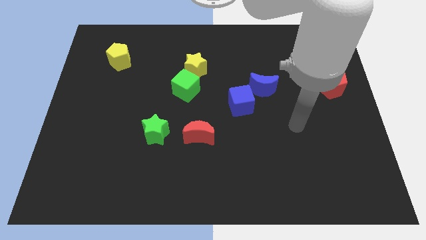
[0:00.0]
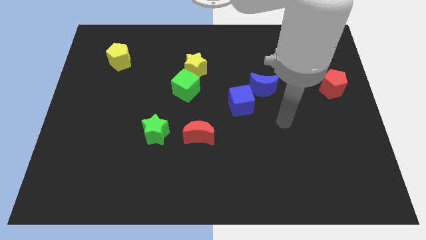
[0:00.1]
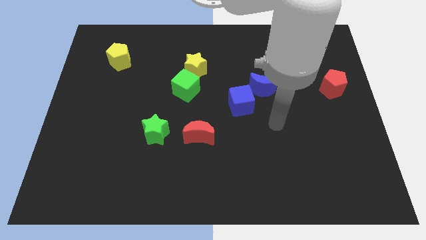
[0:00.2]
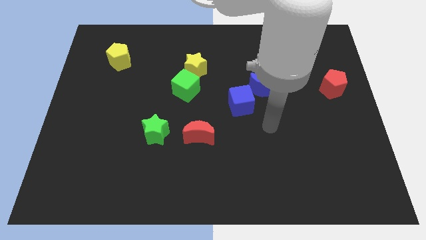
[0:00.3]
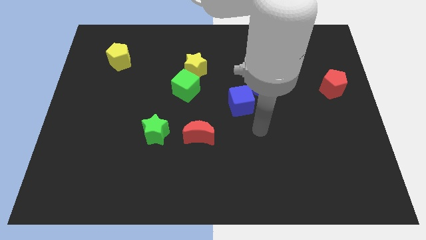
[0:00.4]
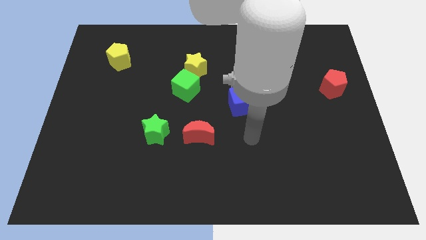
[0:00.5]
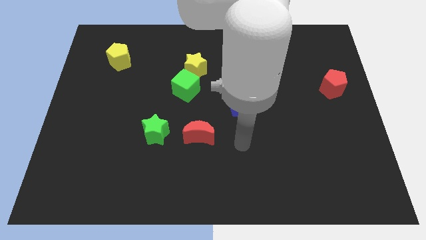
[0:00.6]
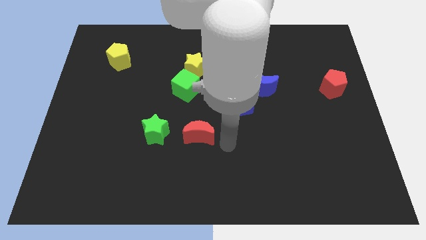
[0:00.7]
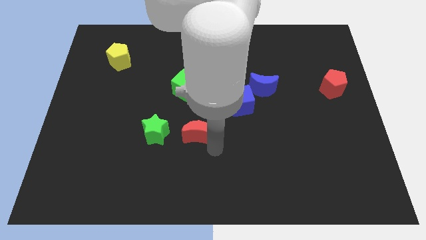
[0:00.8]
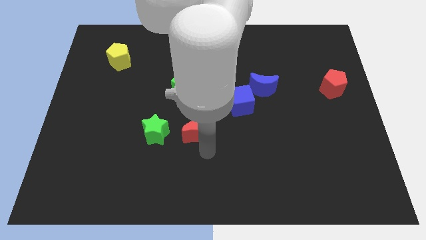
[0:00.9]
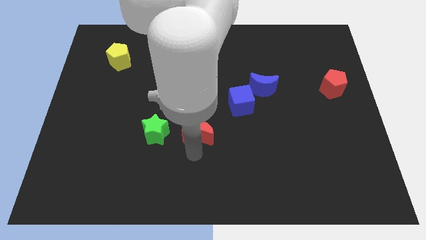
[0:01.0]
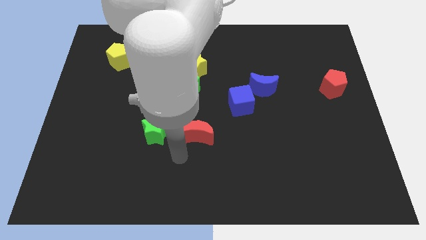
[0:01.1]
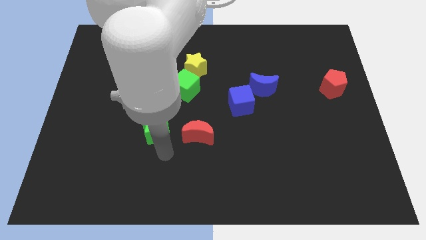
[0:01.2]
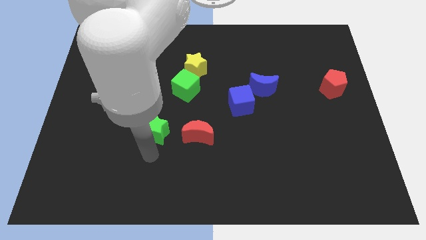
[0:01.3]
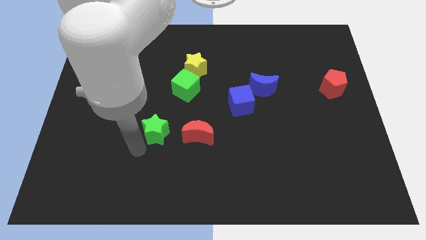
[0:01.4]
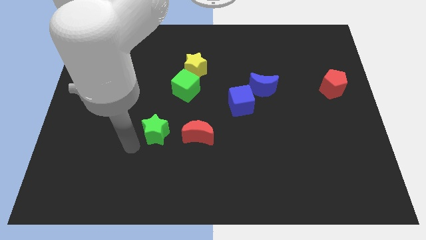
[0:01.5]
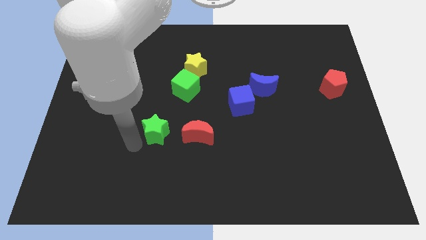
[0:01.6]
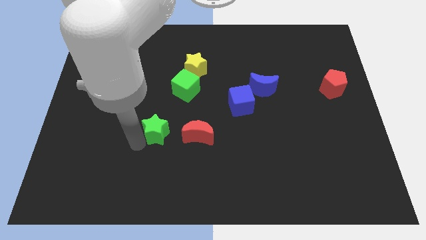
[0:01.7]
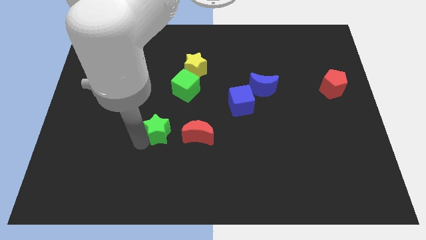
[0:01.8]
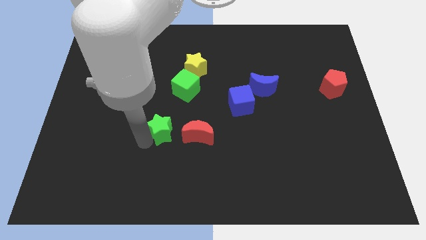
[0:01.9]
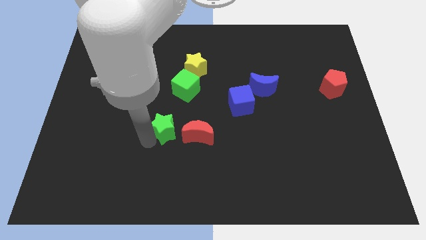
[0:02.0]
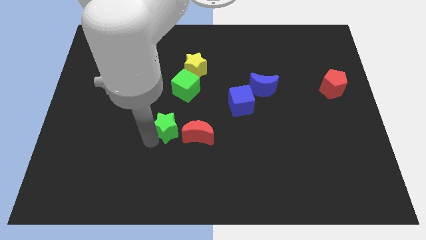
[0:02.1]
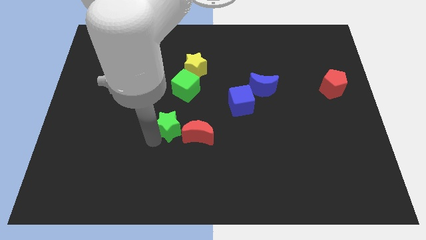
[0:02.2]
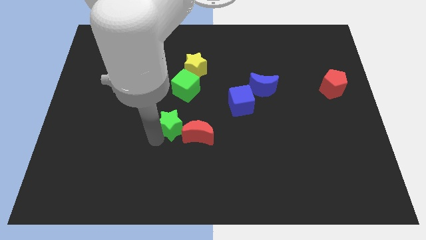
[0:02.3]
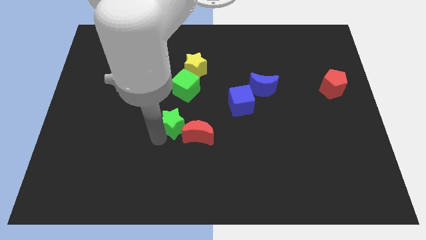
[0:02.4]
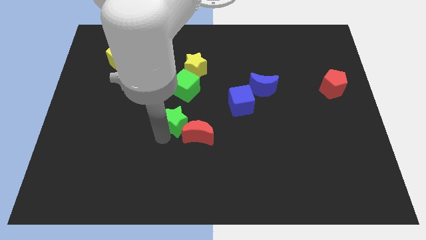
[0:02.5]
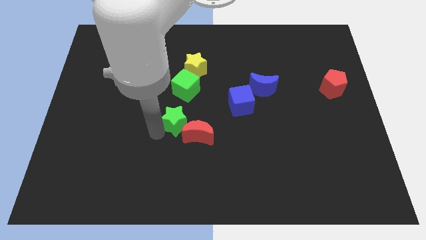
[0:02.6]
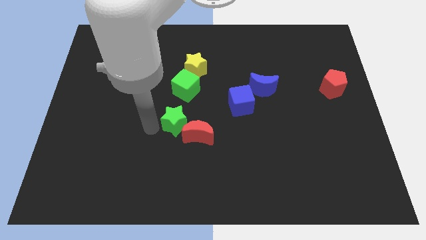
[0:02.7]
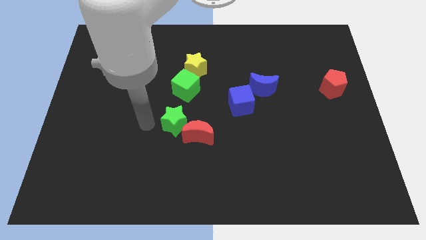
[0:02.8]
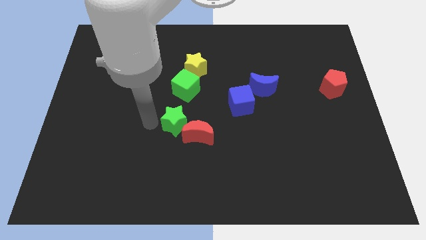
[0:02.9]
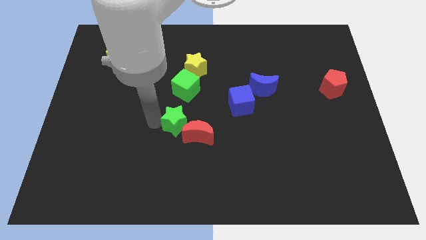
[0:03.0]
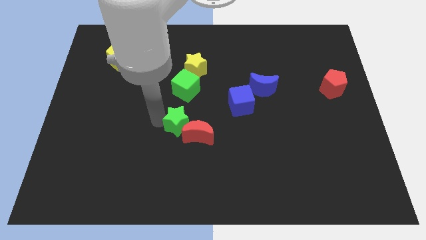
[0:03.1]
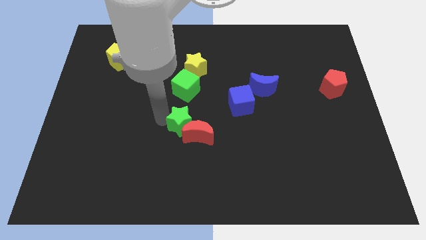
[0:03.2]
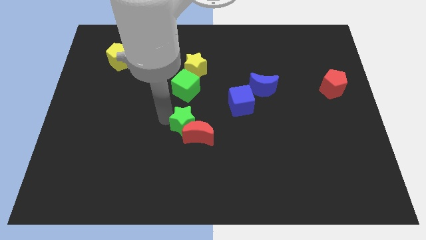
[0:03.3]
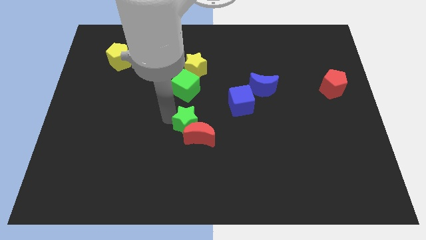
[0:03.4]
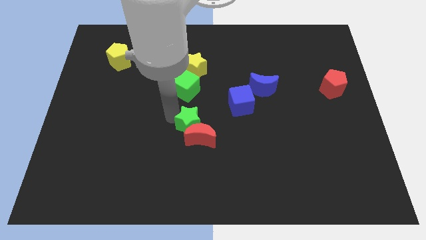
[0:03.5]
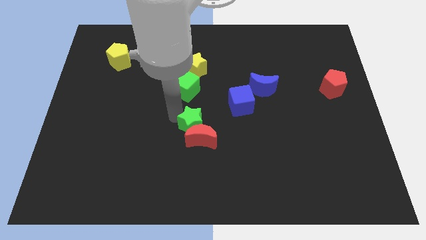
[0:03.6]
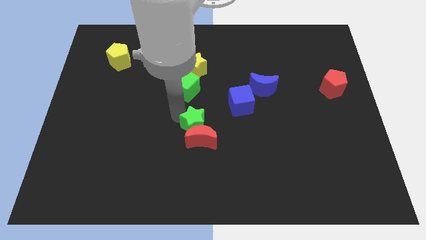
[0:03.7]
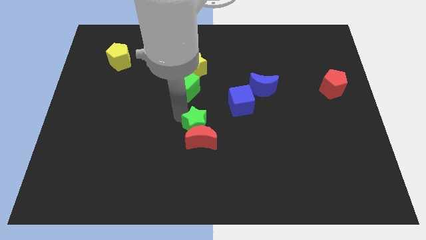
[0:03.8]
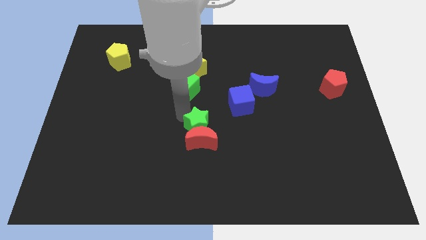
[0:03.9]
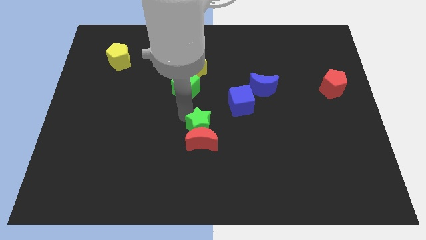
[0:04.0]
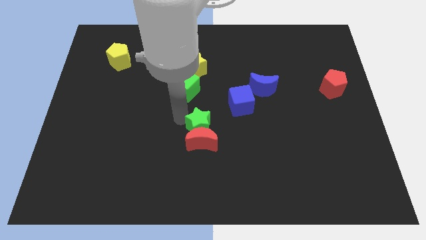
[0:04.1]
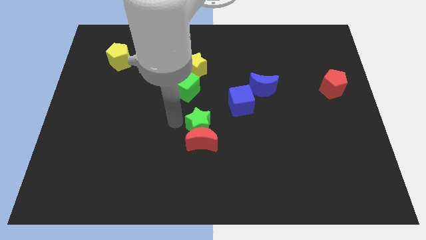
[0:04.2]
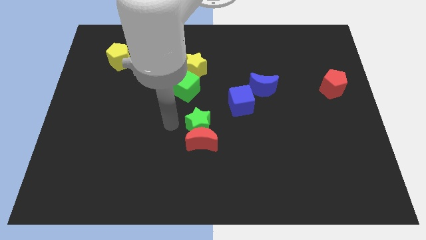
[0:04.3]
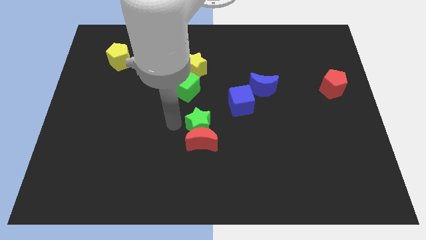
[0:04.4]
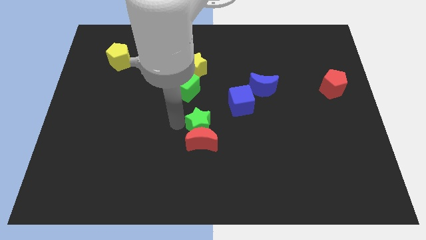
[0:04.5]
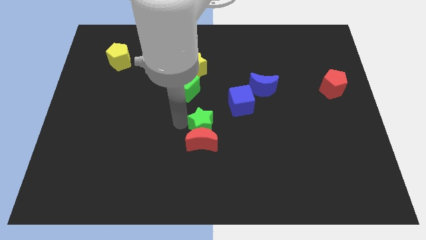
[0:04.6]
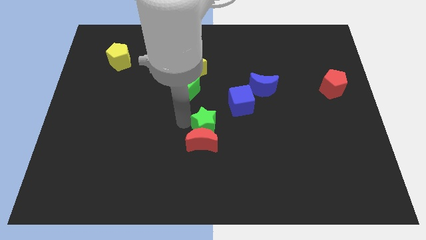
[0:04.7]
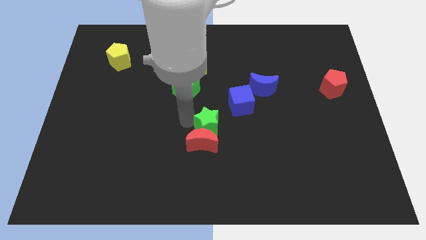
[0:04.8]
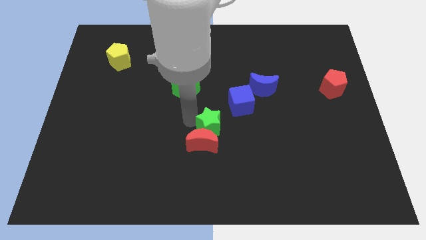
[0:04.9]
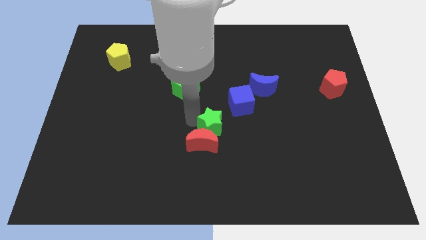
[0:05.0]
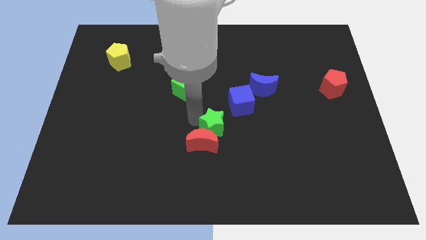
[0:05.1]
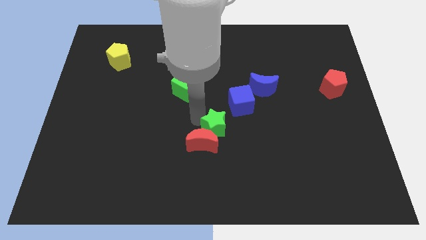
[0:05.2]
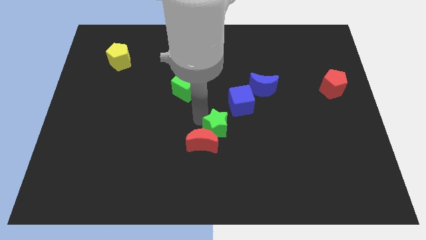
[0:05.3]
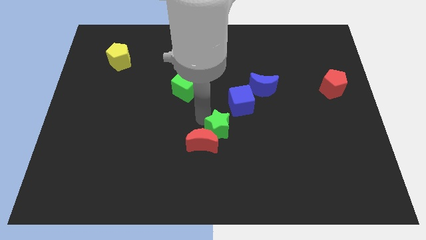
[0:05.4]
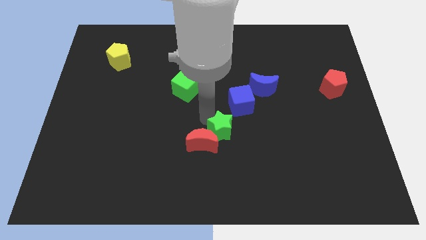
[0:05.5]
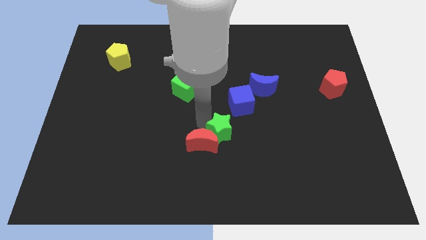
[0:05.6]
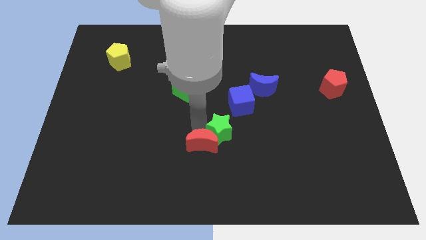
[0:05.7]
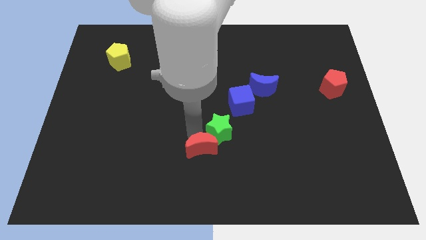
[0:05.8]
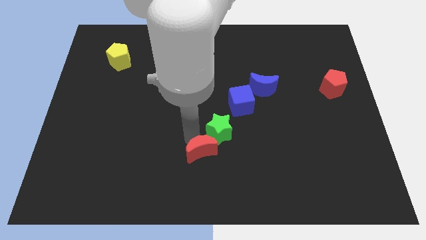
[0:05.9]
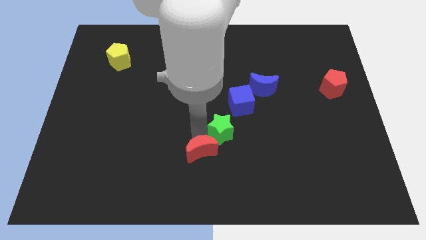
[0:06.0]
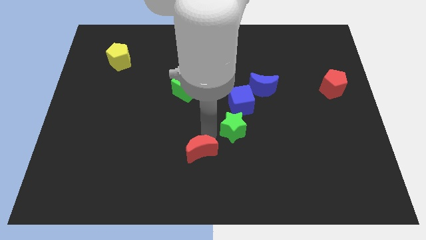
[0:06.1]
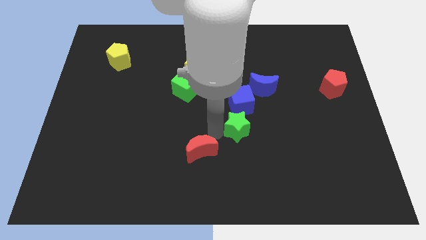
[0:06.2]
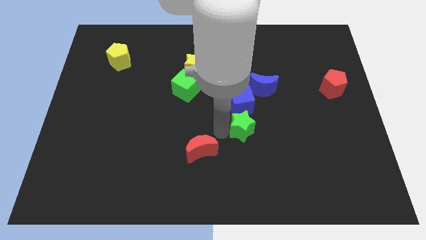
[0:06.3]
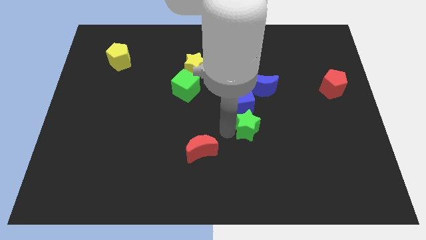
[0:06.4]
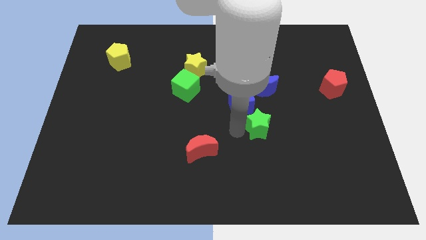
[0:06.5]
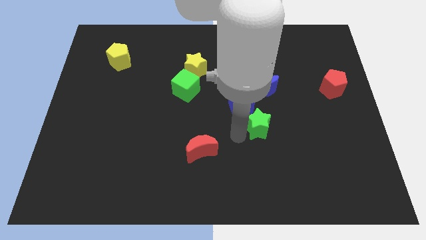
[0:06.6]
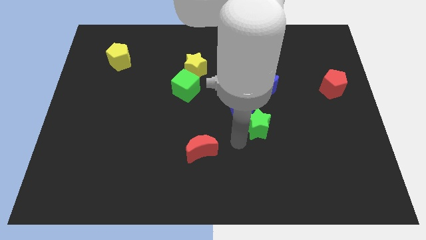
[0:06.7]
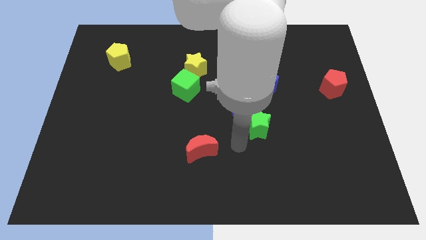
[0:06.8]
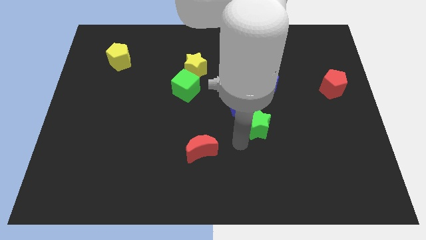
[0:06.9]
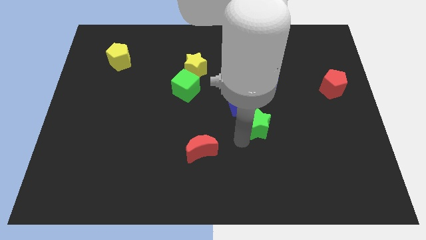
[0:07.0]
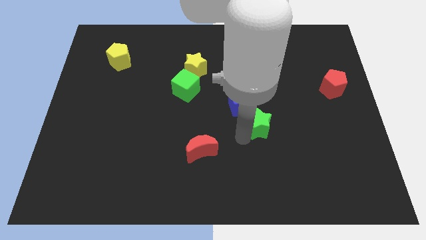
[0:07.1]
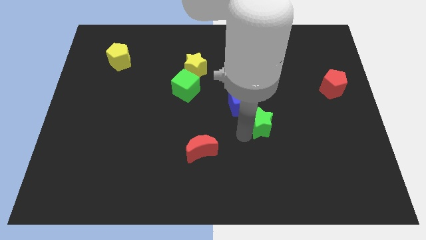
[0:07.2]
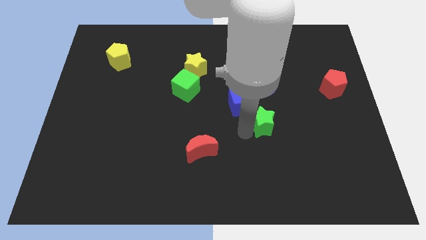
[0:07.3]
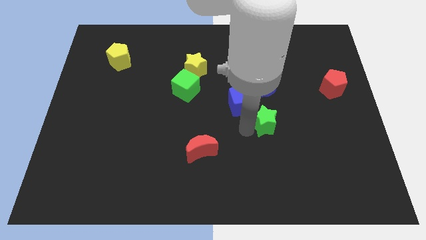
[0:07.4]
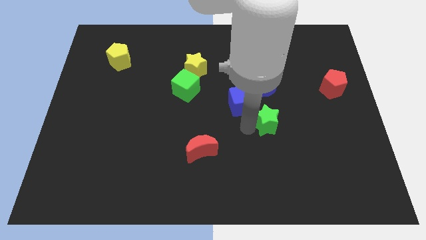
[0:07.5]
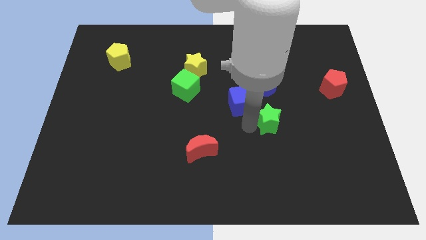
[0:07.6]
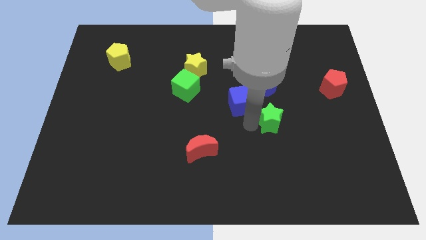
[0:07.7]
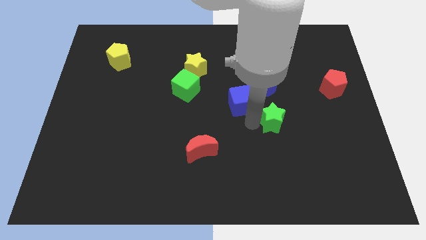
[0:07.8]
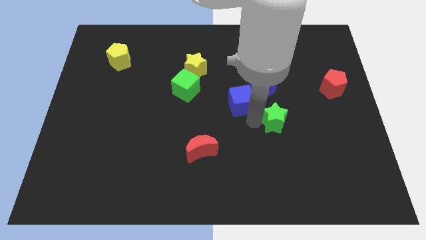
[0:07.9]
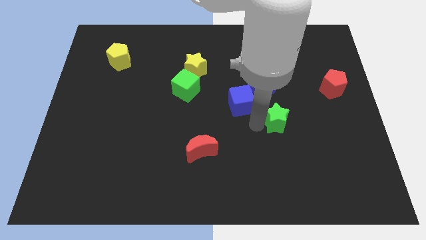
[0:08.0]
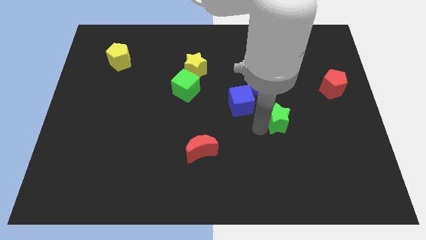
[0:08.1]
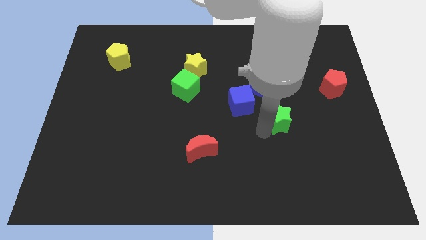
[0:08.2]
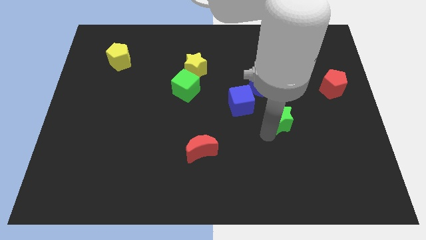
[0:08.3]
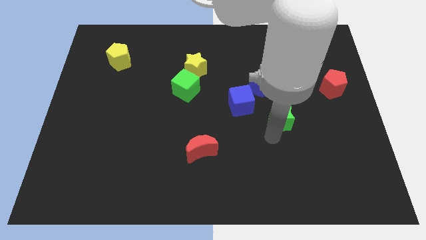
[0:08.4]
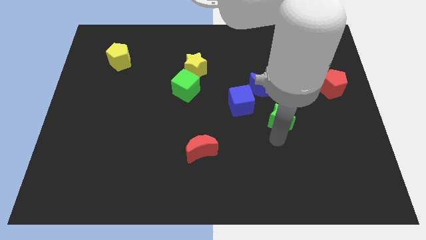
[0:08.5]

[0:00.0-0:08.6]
push the green star to the bottom right of the blue moon
